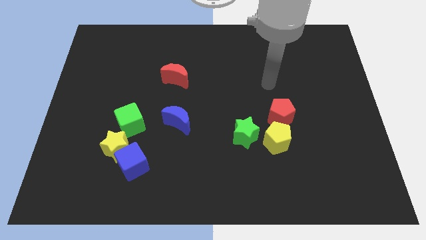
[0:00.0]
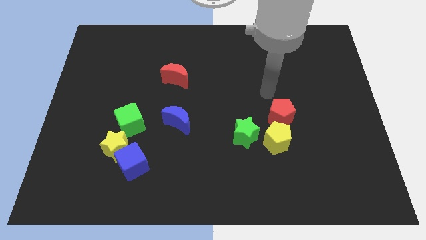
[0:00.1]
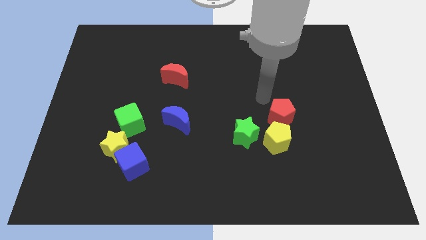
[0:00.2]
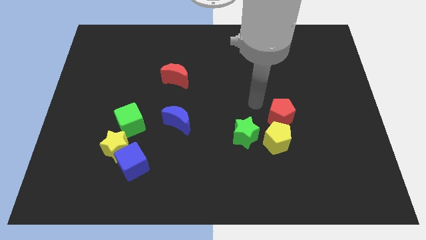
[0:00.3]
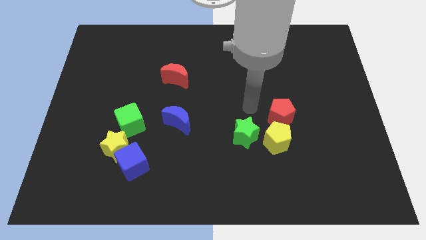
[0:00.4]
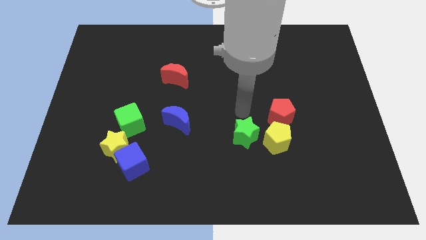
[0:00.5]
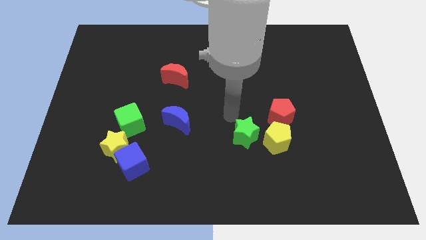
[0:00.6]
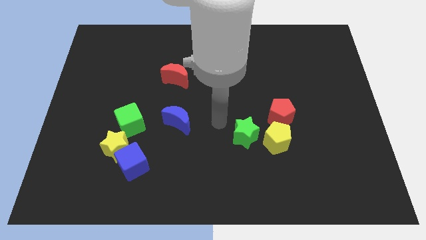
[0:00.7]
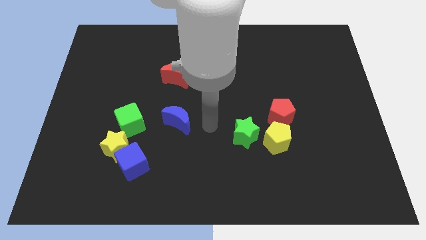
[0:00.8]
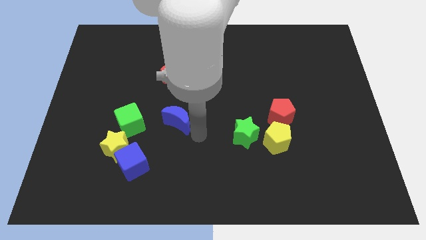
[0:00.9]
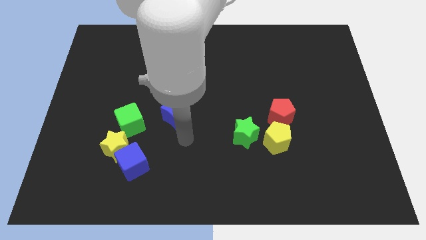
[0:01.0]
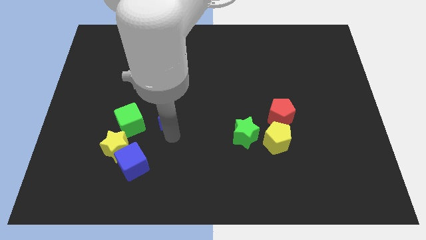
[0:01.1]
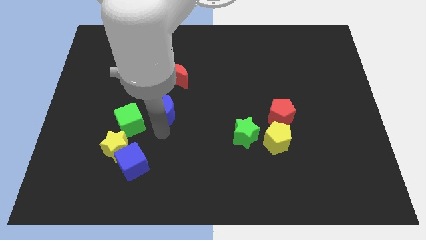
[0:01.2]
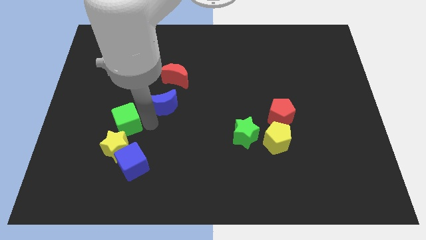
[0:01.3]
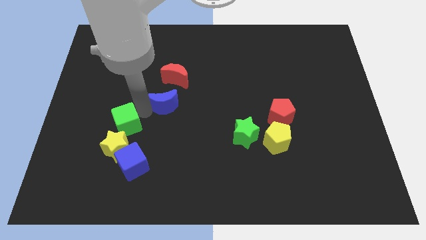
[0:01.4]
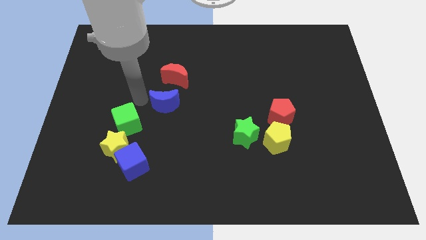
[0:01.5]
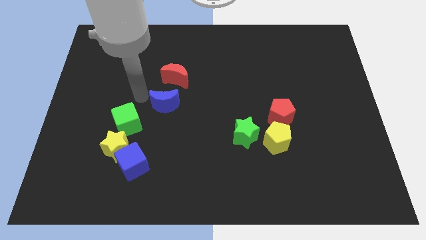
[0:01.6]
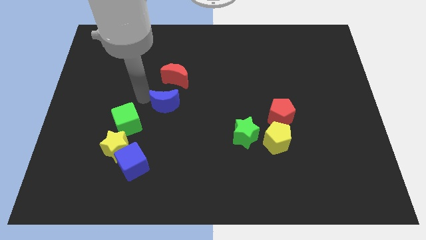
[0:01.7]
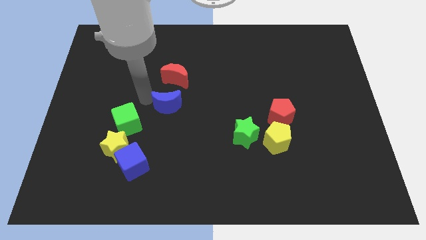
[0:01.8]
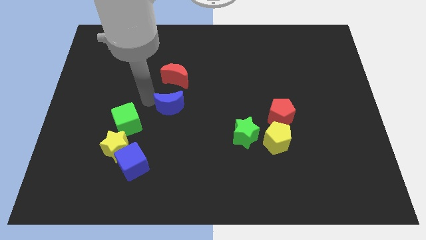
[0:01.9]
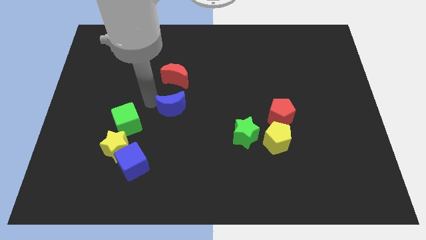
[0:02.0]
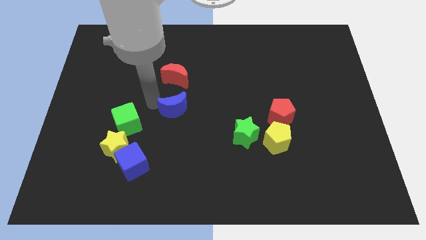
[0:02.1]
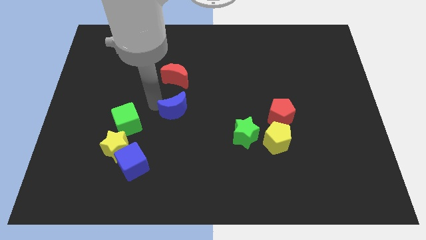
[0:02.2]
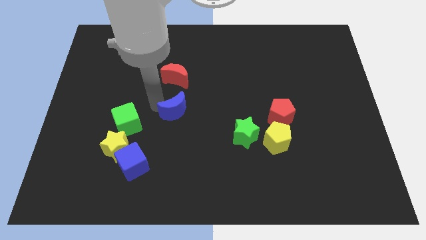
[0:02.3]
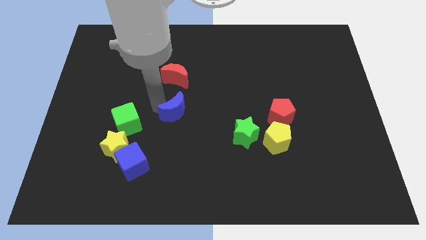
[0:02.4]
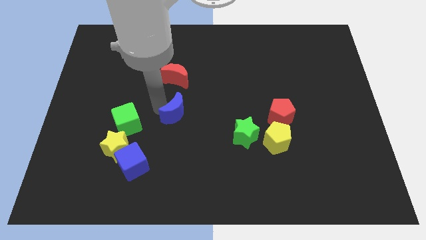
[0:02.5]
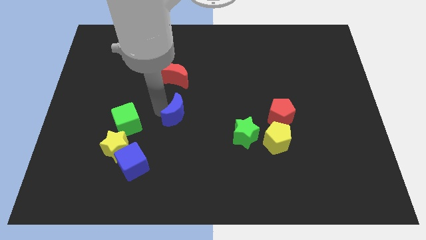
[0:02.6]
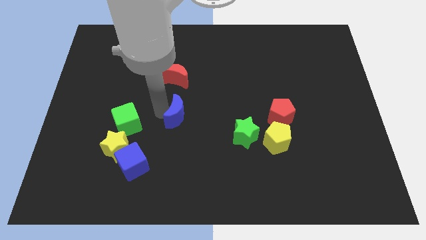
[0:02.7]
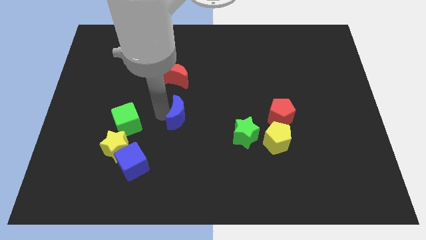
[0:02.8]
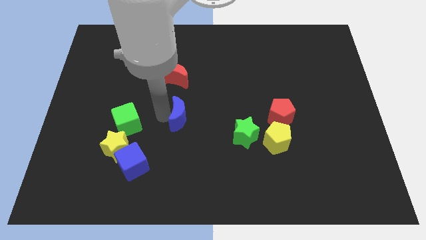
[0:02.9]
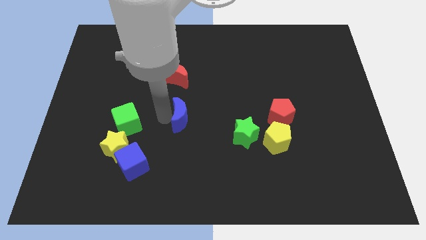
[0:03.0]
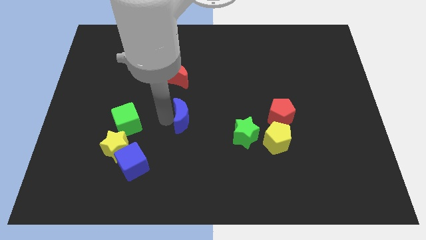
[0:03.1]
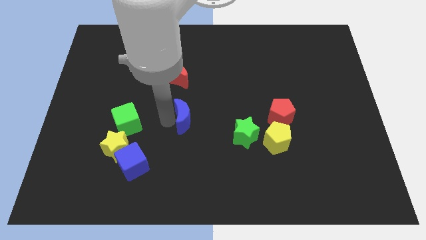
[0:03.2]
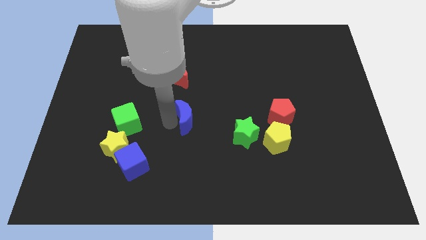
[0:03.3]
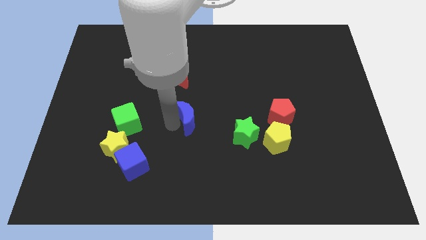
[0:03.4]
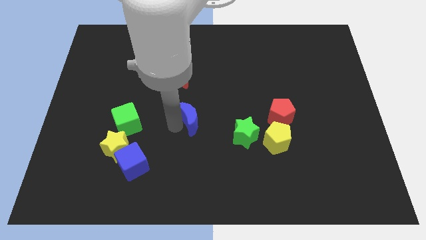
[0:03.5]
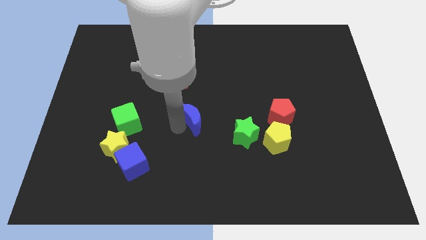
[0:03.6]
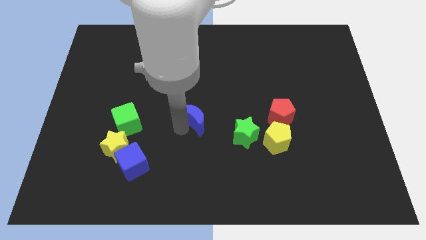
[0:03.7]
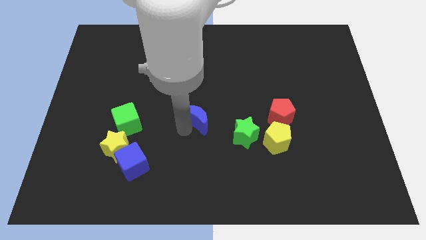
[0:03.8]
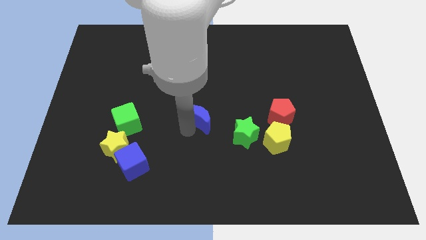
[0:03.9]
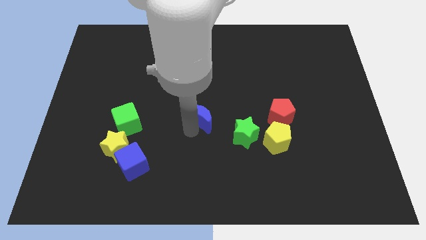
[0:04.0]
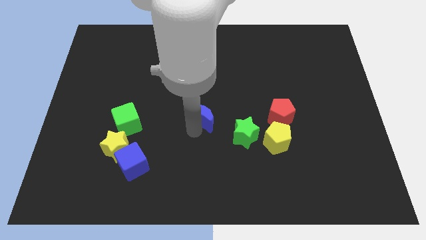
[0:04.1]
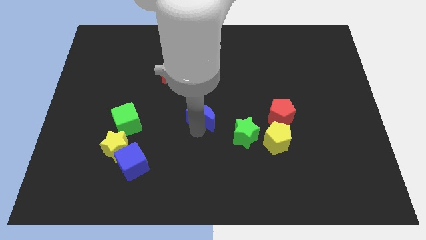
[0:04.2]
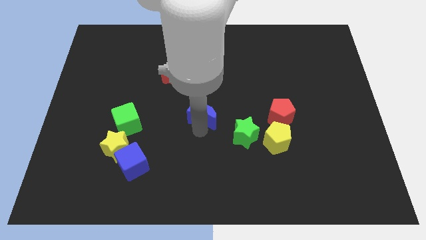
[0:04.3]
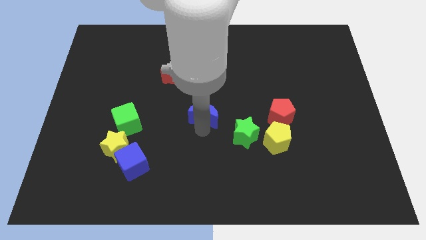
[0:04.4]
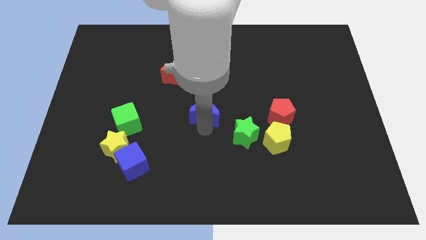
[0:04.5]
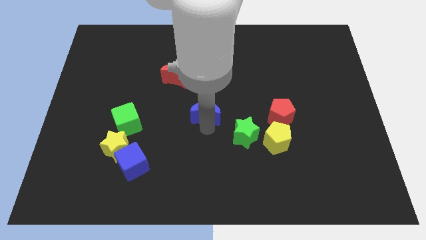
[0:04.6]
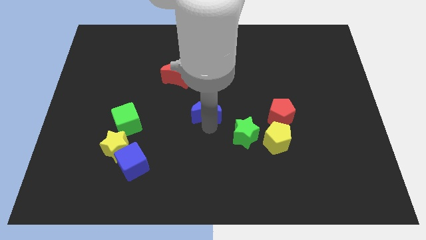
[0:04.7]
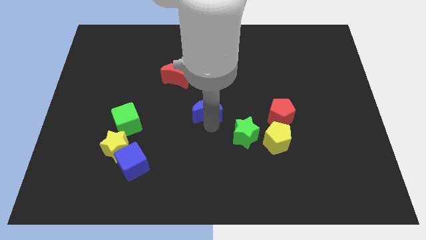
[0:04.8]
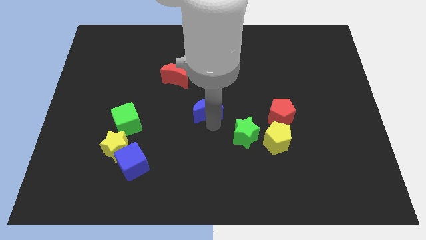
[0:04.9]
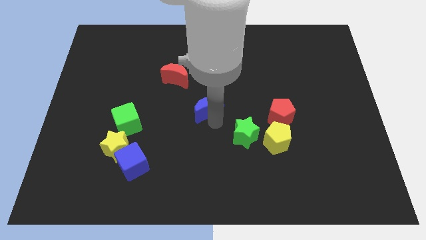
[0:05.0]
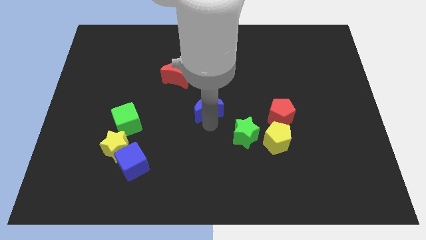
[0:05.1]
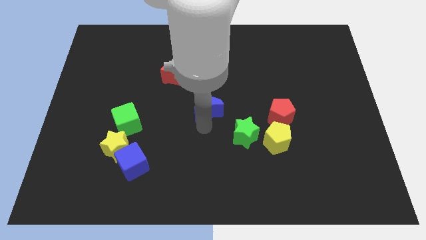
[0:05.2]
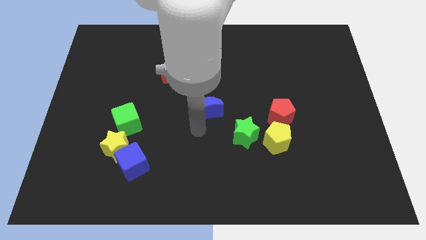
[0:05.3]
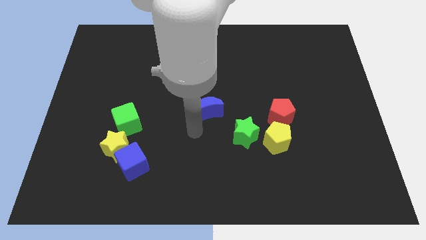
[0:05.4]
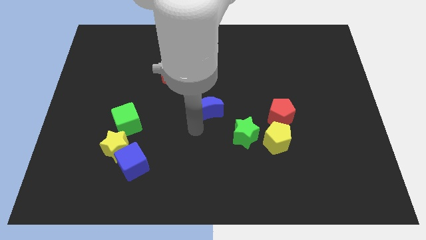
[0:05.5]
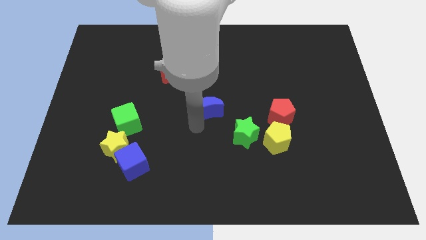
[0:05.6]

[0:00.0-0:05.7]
move the blue moon upwards and to the right a little

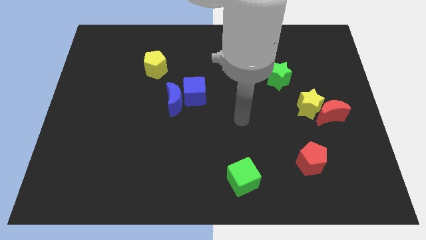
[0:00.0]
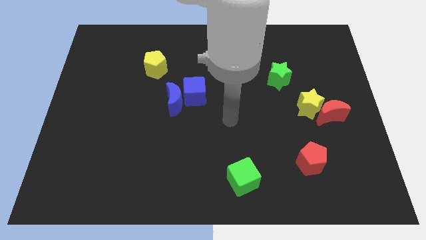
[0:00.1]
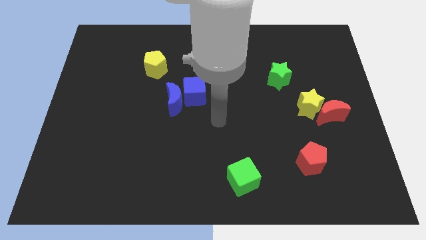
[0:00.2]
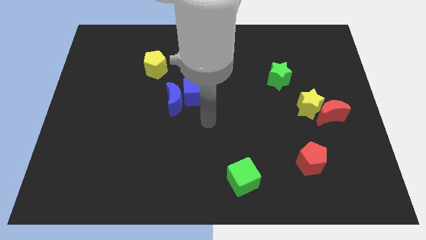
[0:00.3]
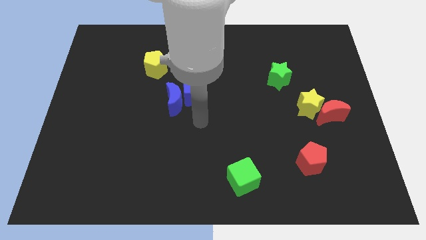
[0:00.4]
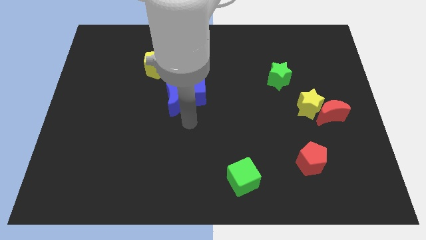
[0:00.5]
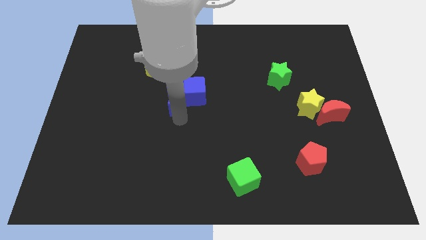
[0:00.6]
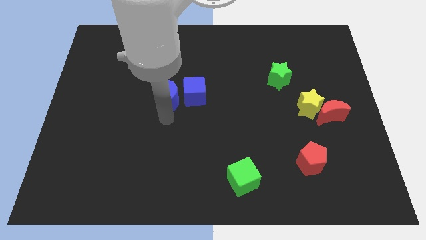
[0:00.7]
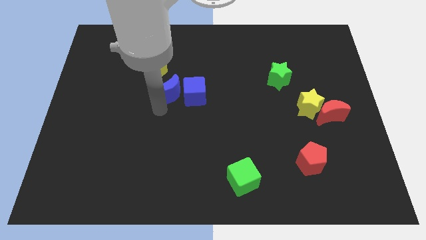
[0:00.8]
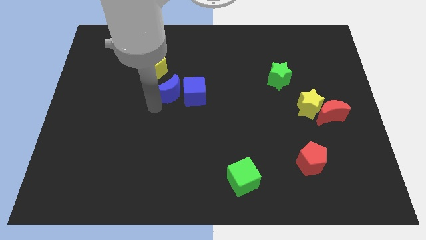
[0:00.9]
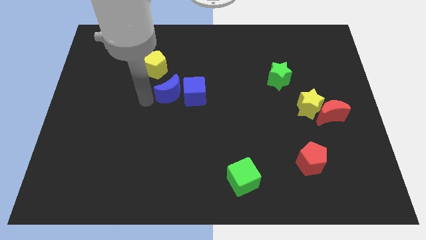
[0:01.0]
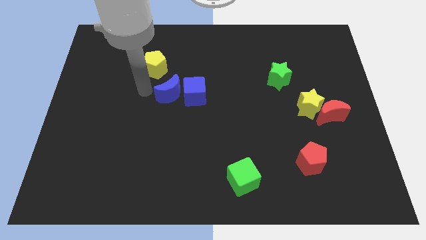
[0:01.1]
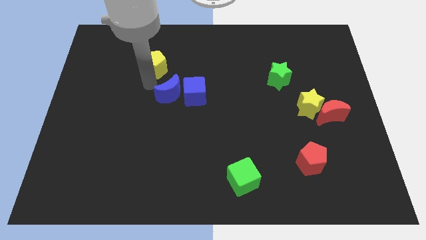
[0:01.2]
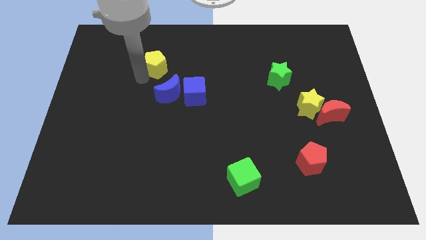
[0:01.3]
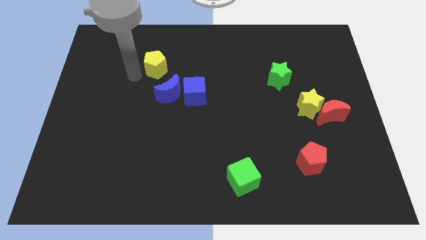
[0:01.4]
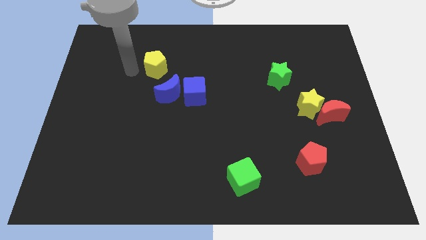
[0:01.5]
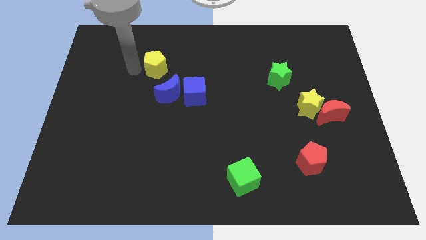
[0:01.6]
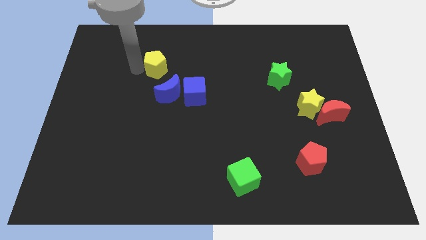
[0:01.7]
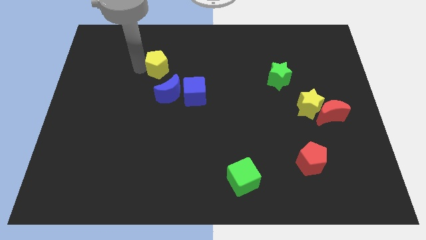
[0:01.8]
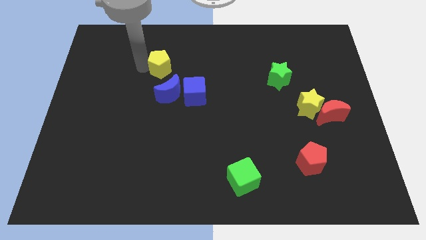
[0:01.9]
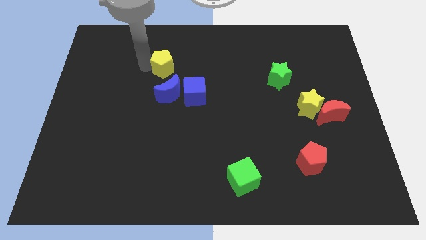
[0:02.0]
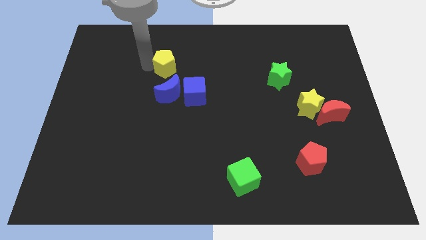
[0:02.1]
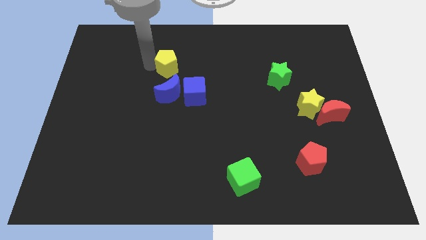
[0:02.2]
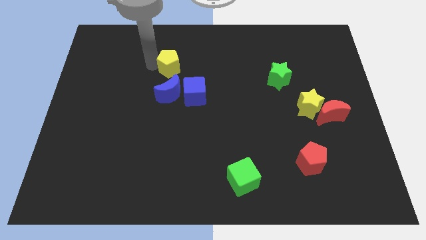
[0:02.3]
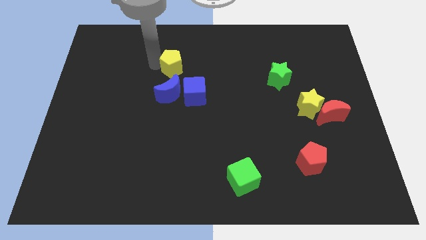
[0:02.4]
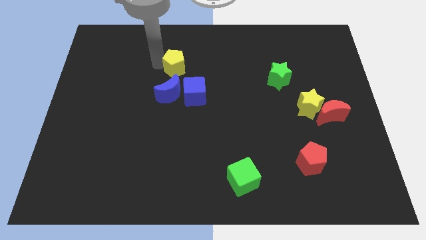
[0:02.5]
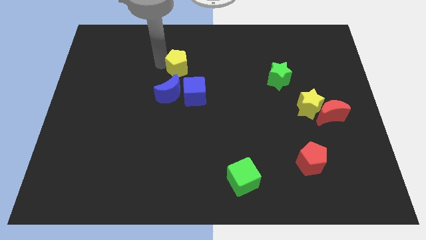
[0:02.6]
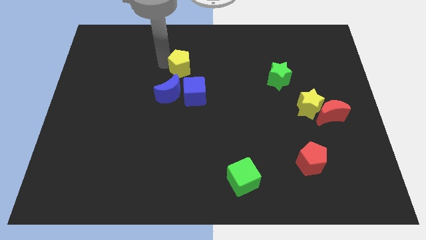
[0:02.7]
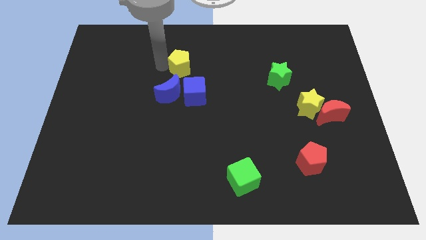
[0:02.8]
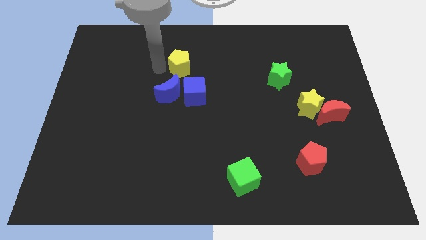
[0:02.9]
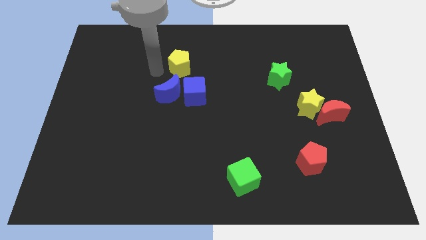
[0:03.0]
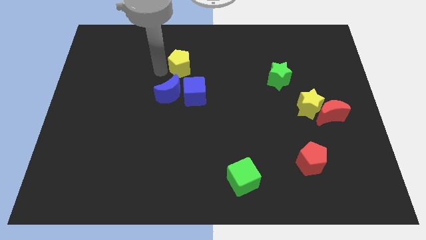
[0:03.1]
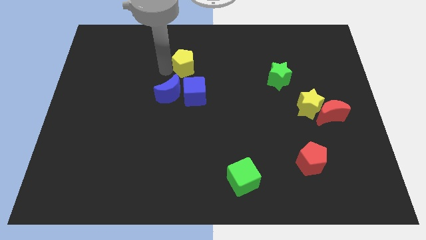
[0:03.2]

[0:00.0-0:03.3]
slightly move the yellow pentagon right
